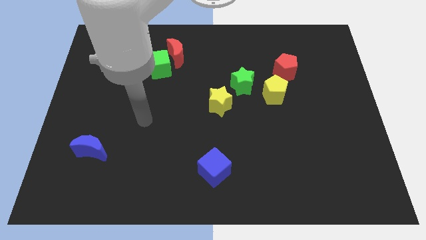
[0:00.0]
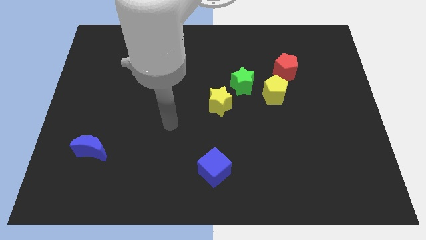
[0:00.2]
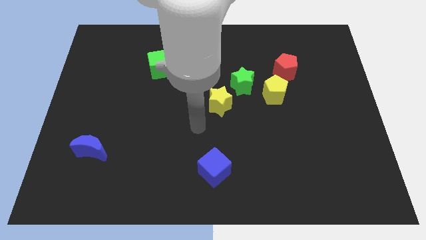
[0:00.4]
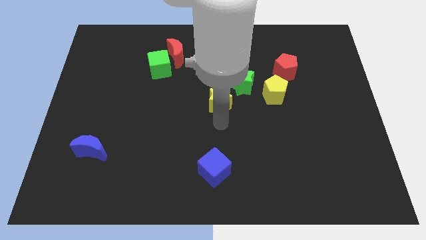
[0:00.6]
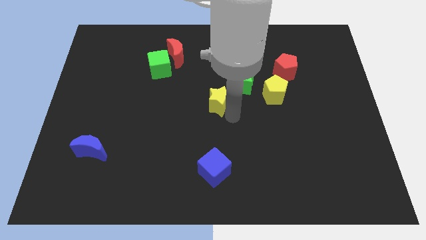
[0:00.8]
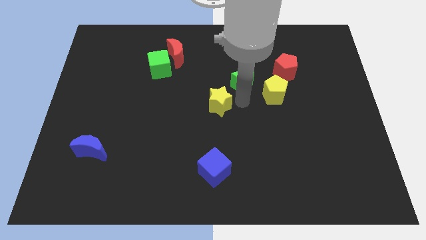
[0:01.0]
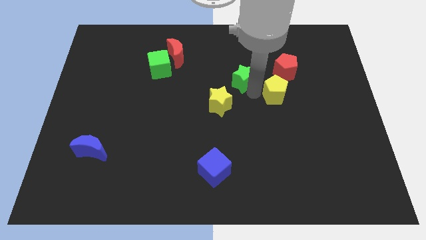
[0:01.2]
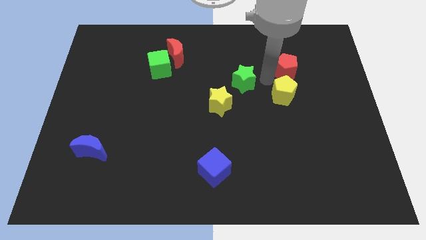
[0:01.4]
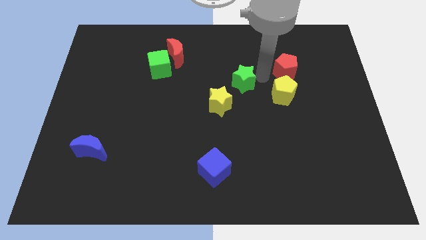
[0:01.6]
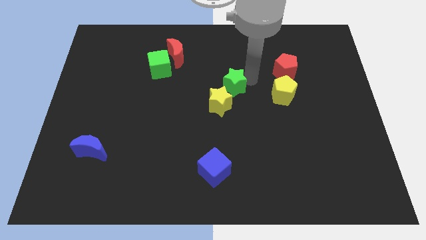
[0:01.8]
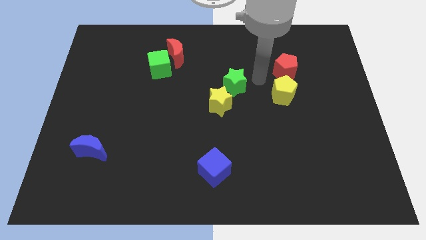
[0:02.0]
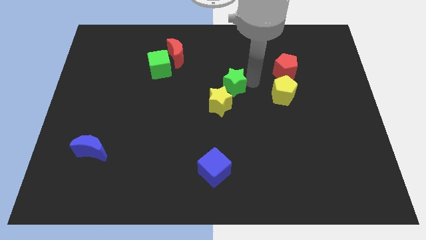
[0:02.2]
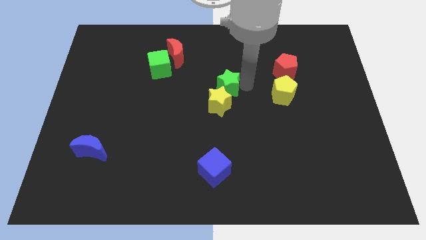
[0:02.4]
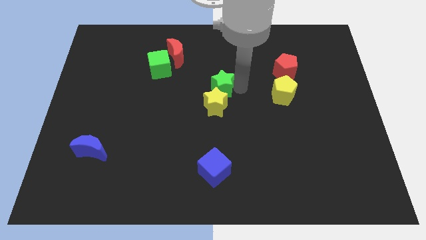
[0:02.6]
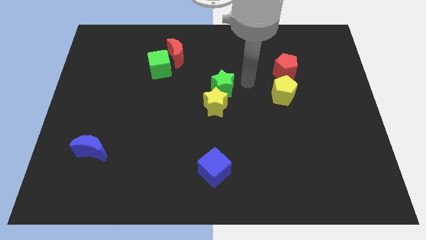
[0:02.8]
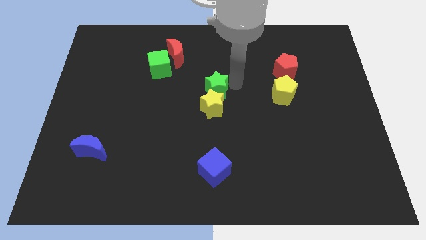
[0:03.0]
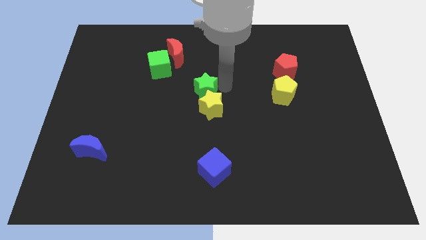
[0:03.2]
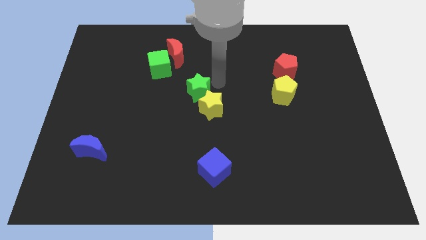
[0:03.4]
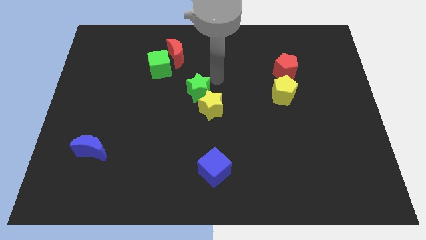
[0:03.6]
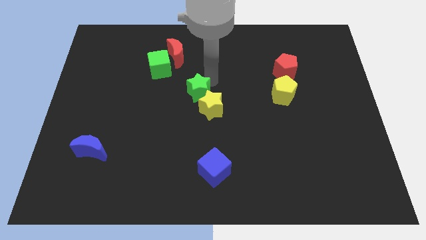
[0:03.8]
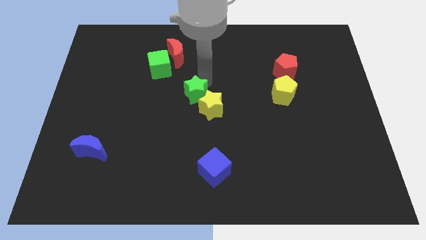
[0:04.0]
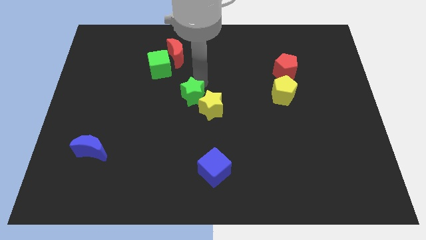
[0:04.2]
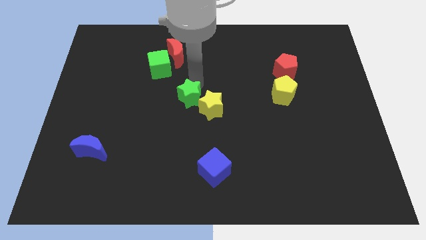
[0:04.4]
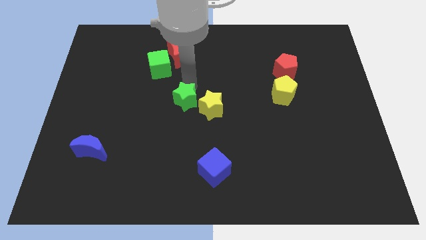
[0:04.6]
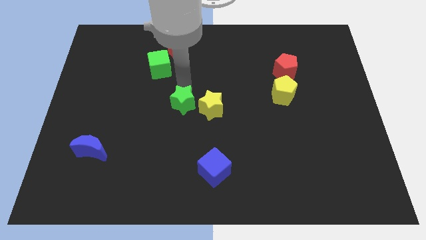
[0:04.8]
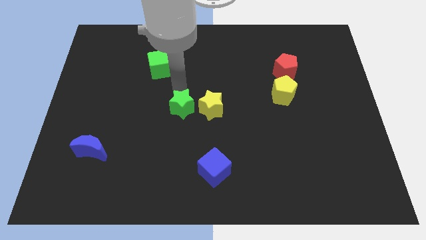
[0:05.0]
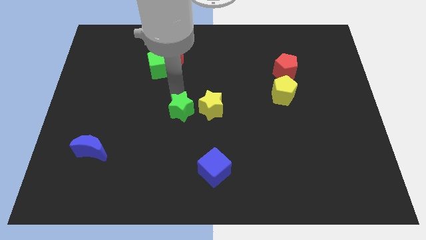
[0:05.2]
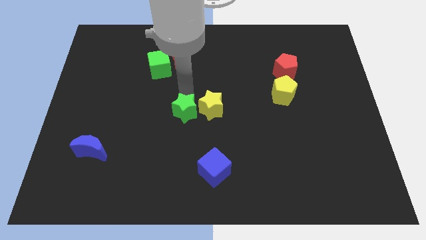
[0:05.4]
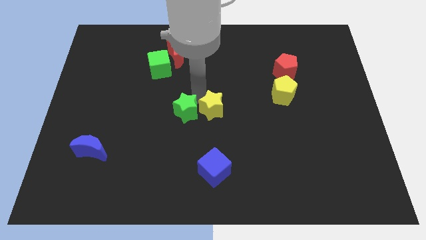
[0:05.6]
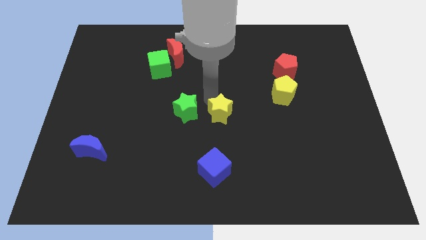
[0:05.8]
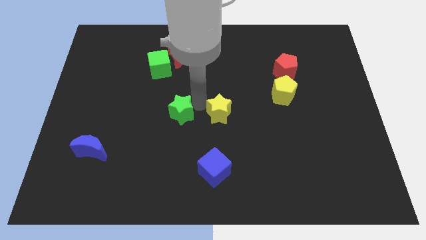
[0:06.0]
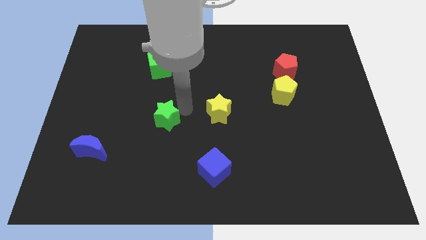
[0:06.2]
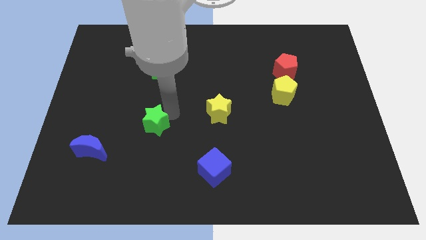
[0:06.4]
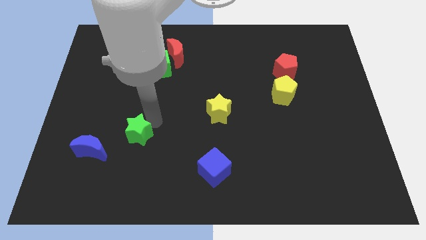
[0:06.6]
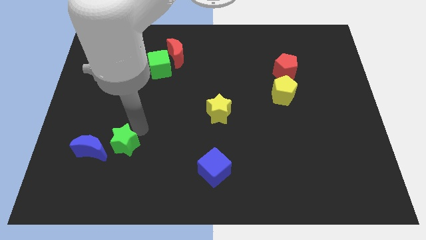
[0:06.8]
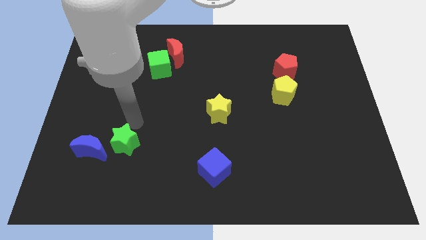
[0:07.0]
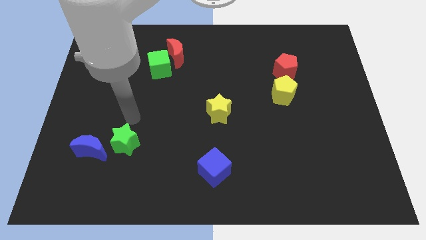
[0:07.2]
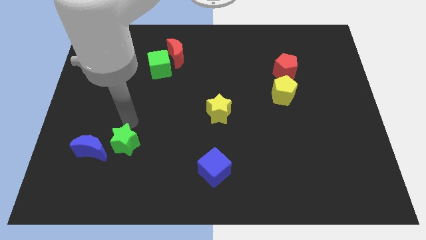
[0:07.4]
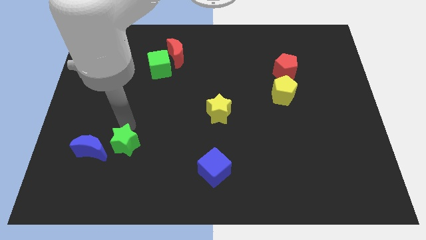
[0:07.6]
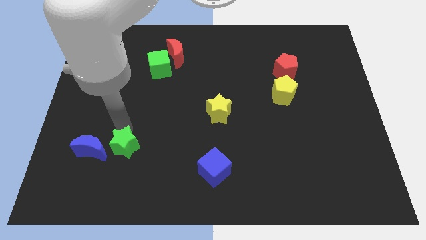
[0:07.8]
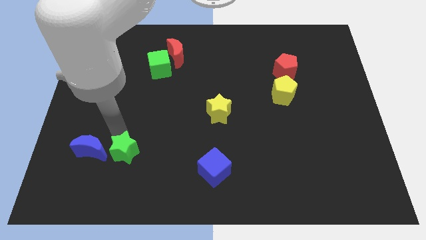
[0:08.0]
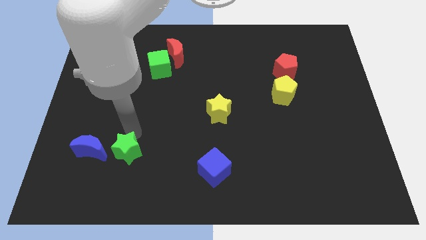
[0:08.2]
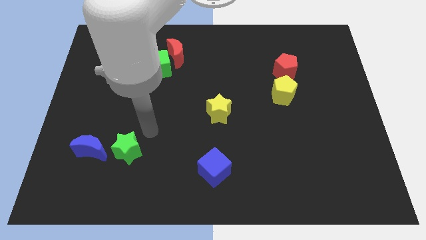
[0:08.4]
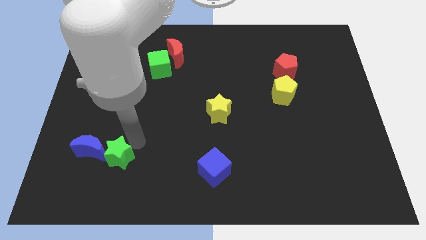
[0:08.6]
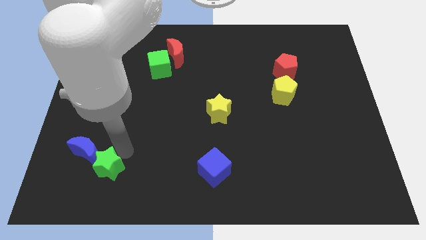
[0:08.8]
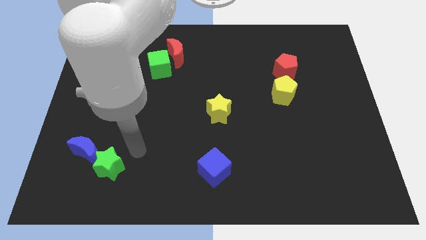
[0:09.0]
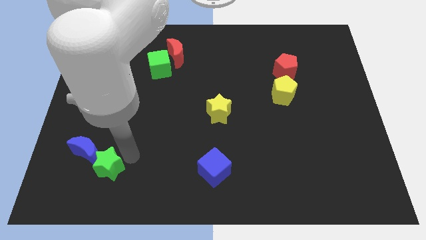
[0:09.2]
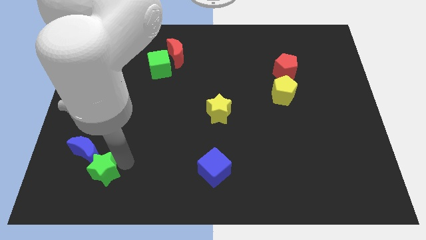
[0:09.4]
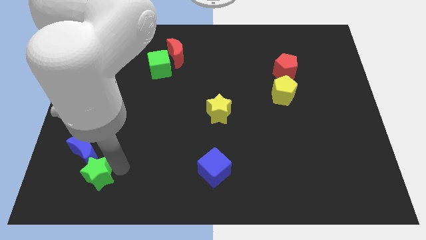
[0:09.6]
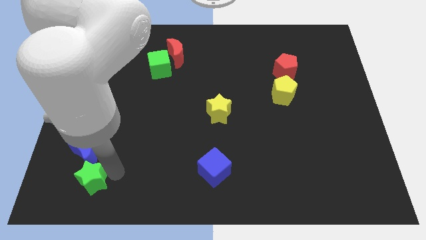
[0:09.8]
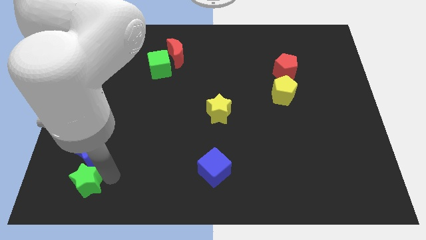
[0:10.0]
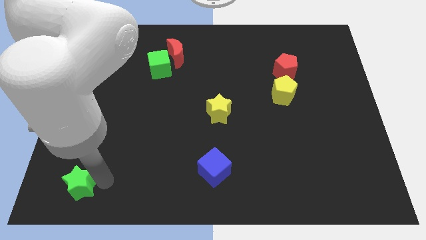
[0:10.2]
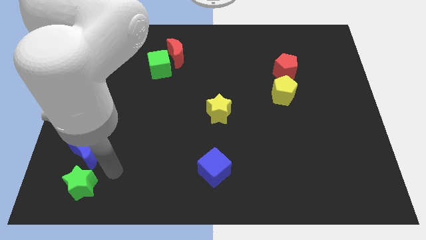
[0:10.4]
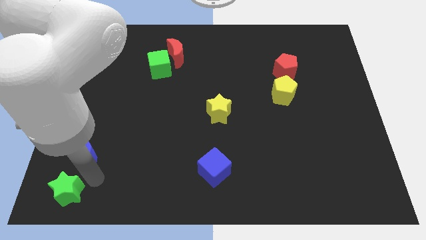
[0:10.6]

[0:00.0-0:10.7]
push the green star to the bottom left corner

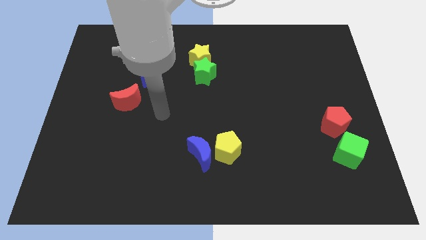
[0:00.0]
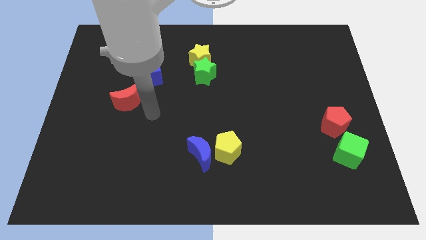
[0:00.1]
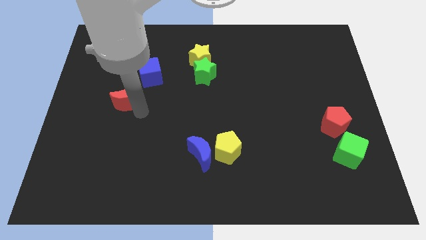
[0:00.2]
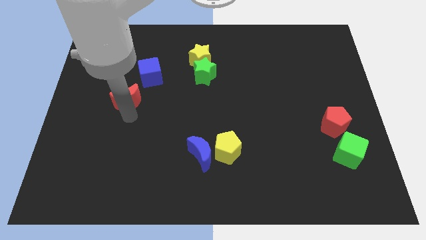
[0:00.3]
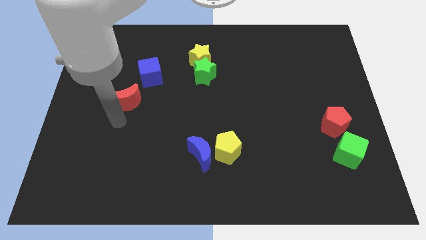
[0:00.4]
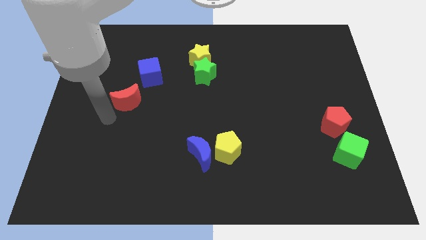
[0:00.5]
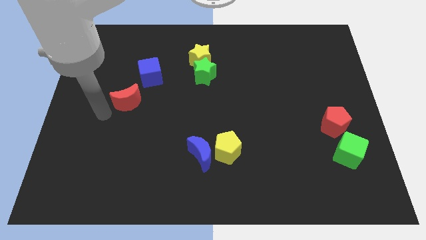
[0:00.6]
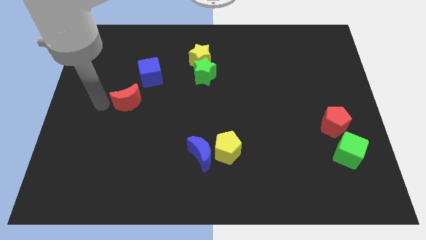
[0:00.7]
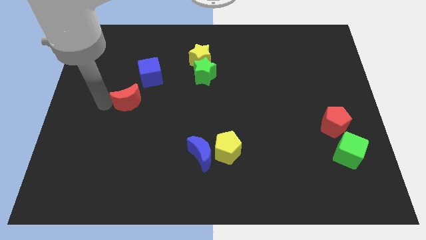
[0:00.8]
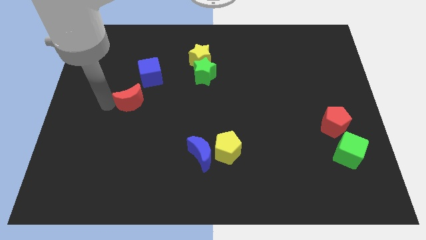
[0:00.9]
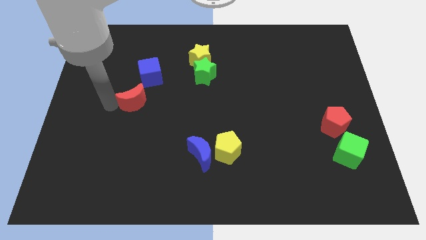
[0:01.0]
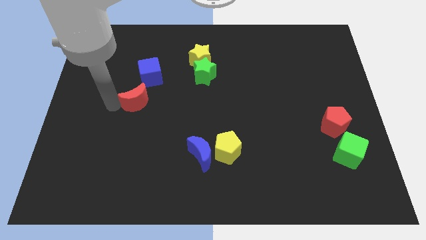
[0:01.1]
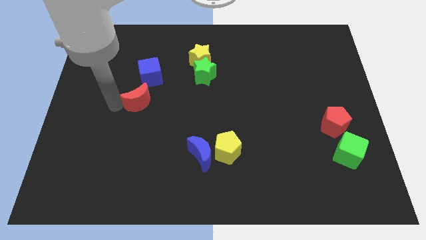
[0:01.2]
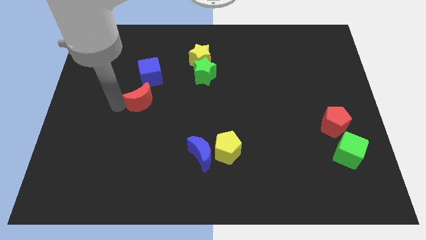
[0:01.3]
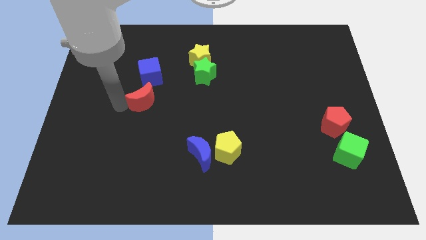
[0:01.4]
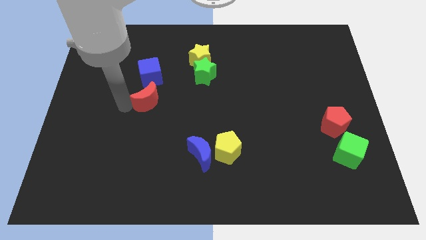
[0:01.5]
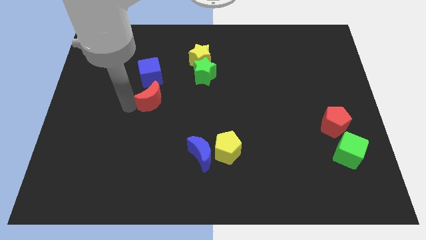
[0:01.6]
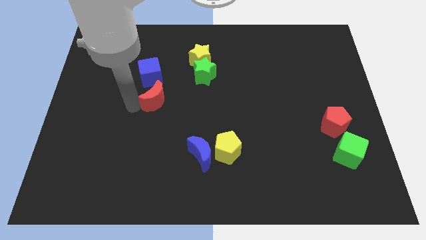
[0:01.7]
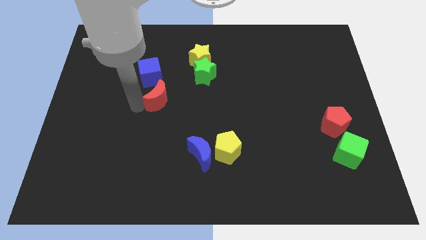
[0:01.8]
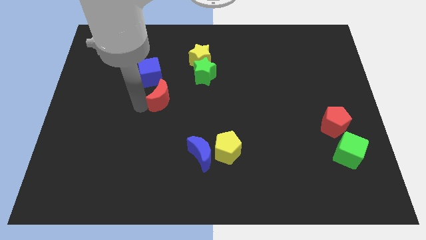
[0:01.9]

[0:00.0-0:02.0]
move the red moon to the center
